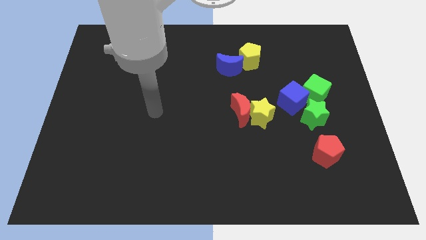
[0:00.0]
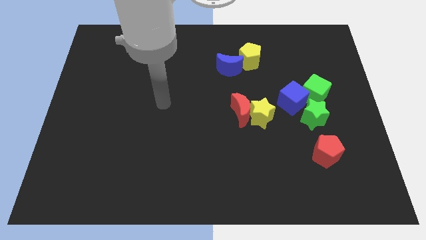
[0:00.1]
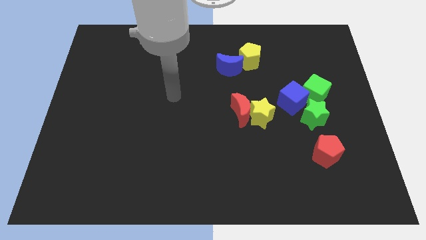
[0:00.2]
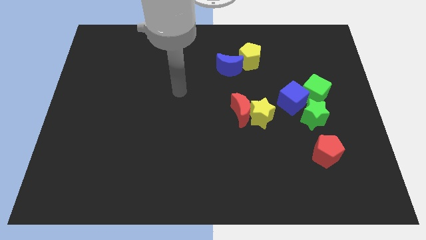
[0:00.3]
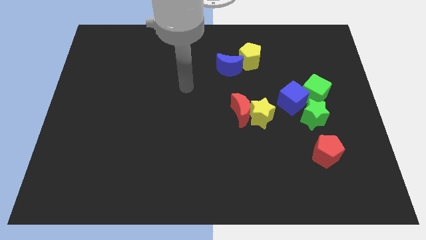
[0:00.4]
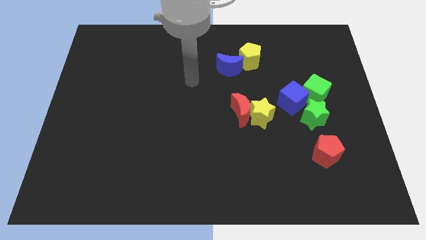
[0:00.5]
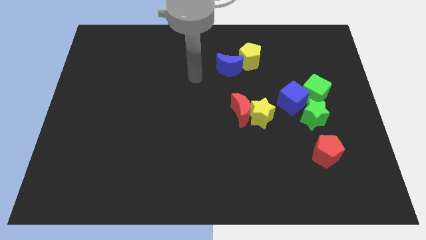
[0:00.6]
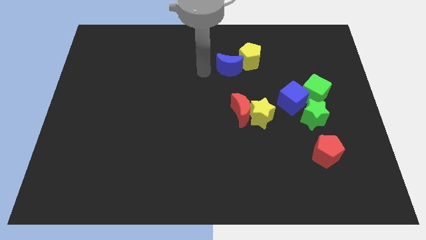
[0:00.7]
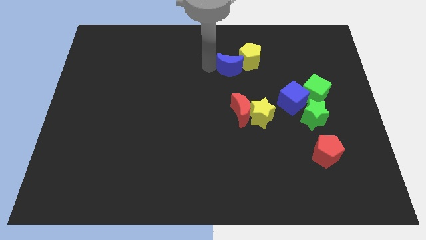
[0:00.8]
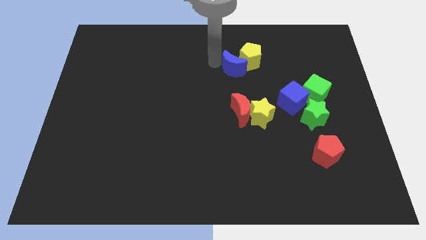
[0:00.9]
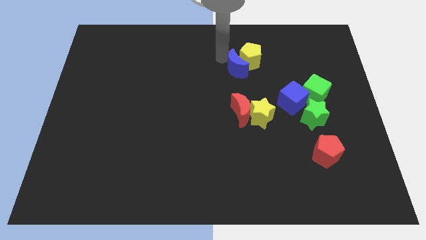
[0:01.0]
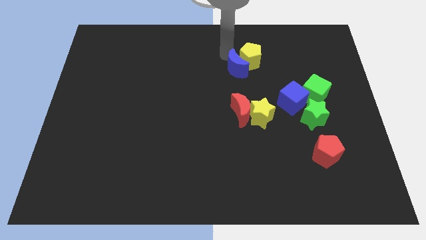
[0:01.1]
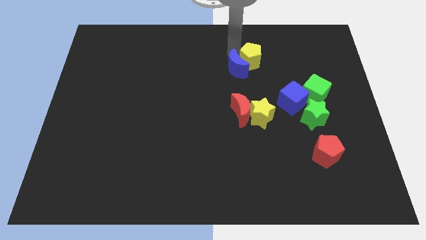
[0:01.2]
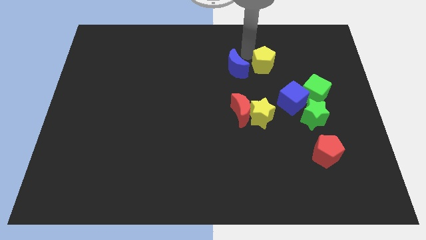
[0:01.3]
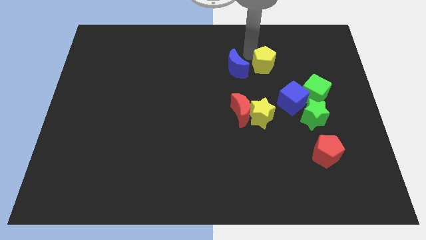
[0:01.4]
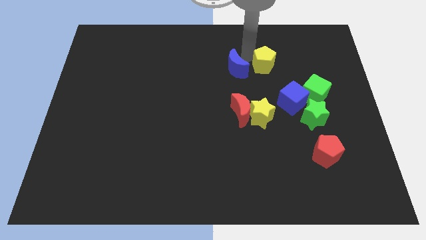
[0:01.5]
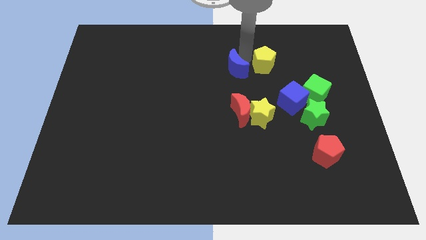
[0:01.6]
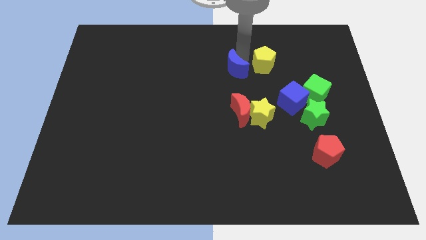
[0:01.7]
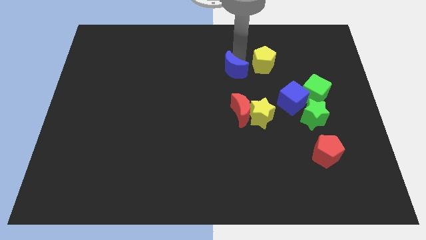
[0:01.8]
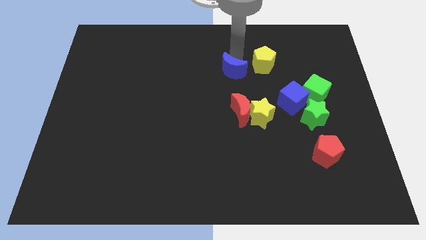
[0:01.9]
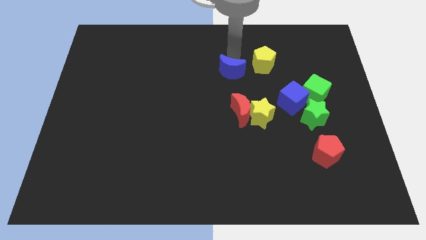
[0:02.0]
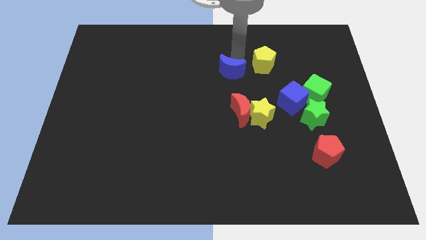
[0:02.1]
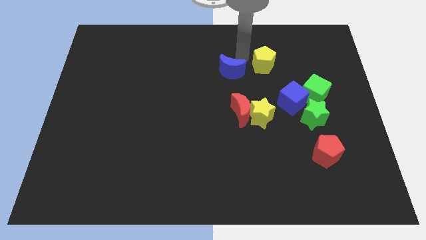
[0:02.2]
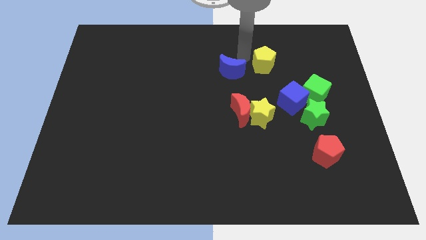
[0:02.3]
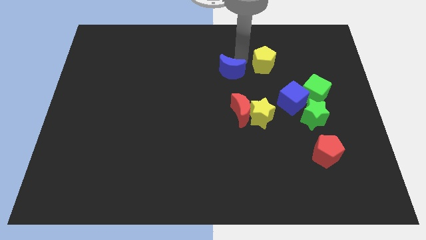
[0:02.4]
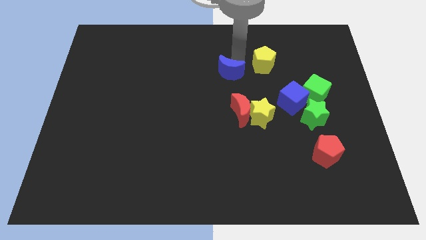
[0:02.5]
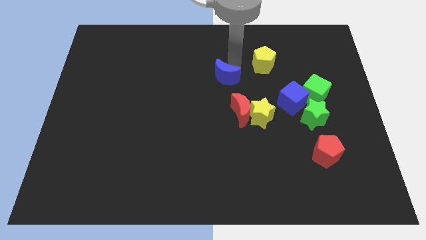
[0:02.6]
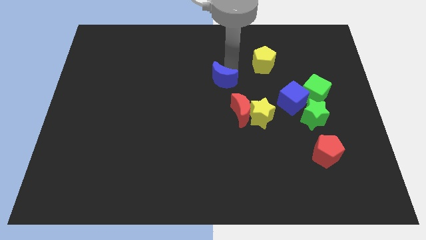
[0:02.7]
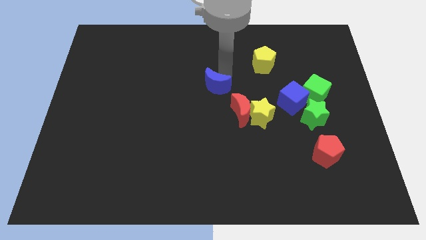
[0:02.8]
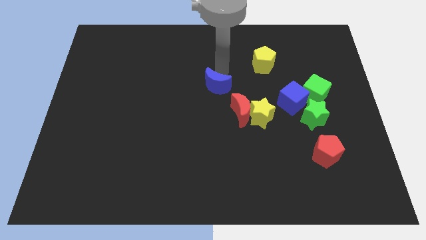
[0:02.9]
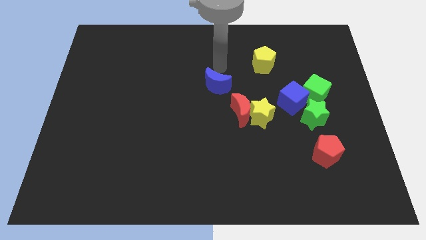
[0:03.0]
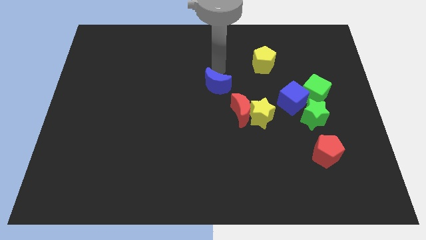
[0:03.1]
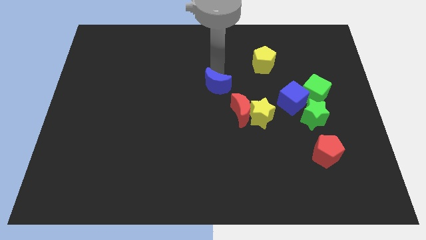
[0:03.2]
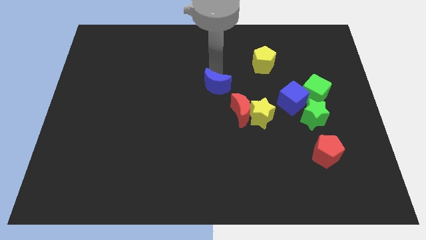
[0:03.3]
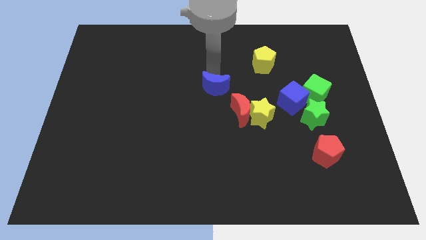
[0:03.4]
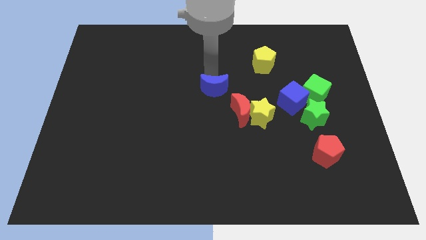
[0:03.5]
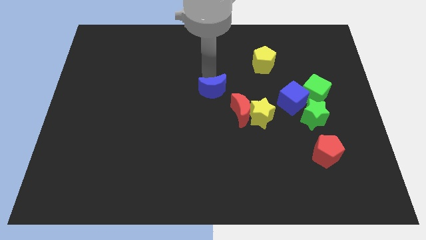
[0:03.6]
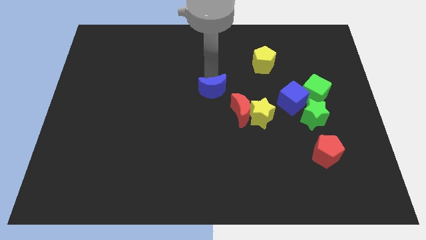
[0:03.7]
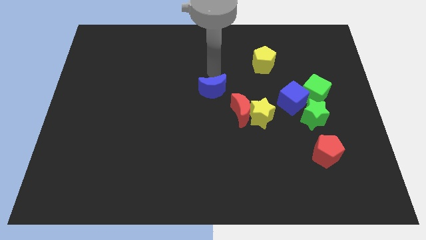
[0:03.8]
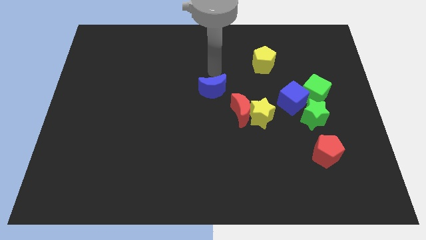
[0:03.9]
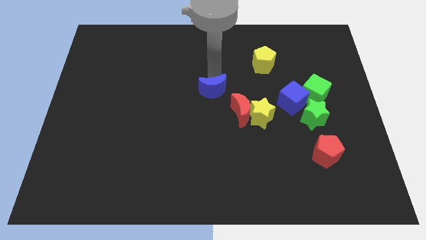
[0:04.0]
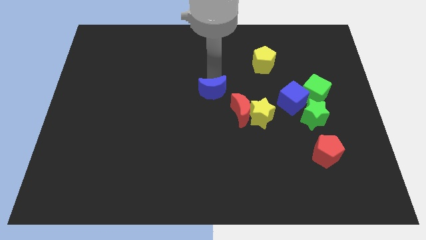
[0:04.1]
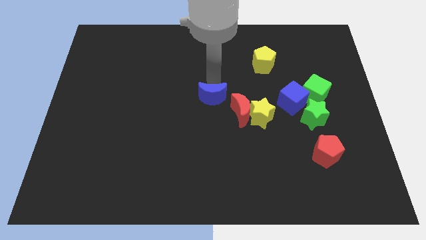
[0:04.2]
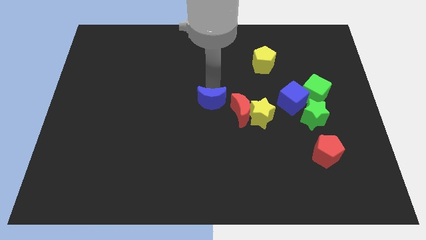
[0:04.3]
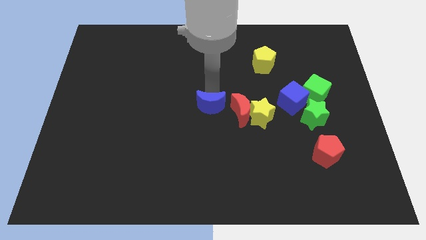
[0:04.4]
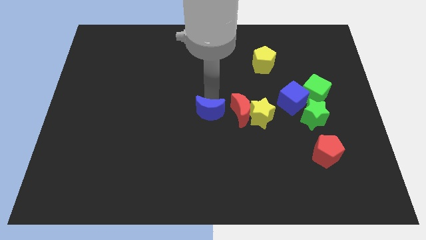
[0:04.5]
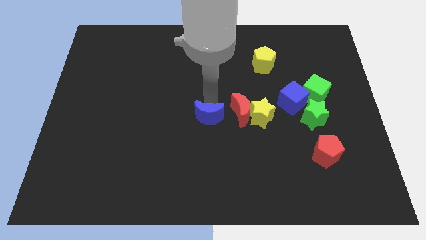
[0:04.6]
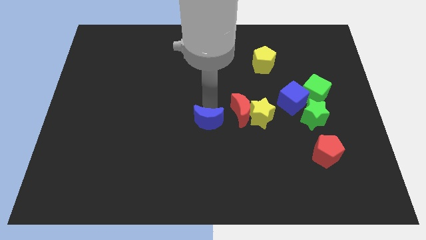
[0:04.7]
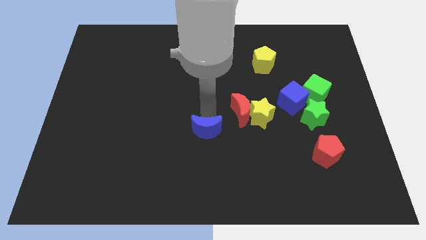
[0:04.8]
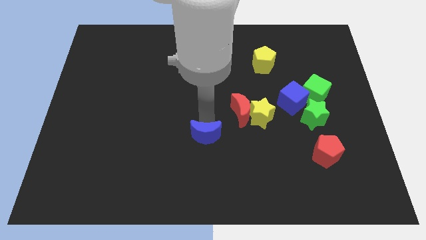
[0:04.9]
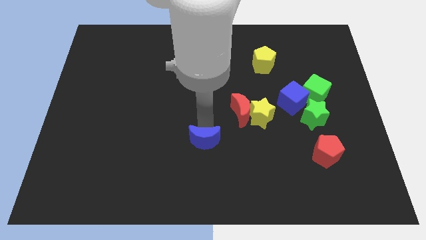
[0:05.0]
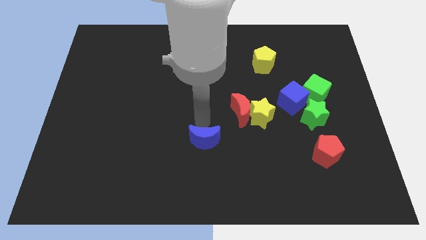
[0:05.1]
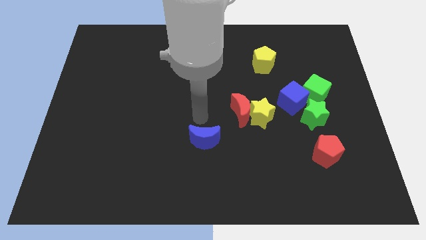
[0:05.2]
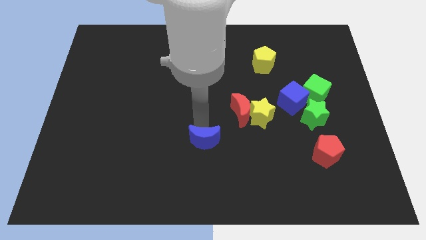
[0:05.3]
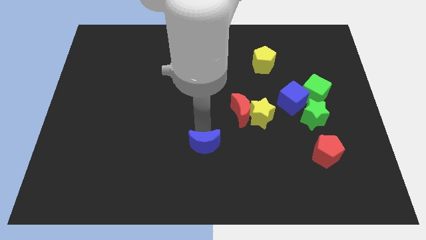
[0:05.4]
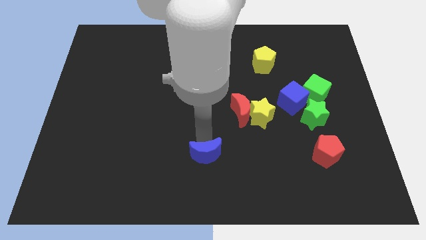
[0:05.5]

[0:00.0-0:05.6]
put the blue moon to the bottom

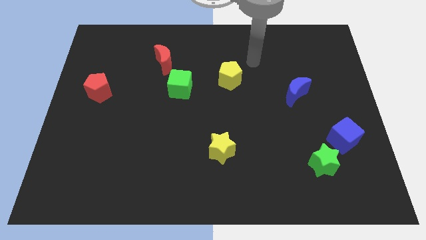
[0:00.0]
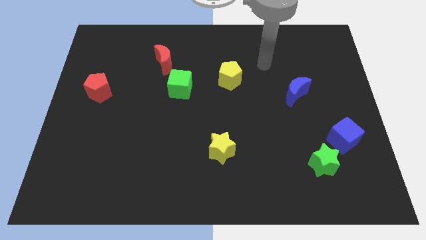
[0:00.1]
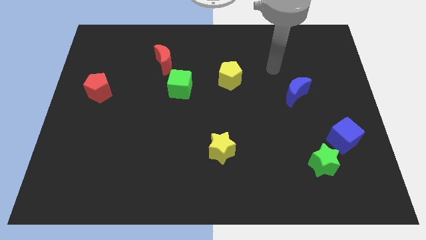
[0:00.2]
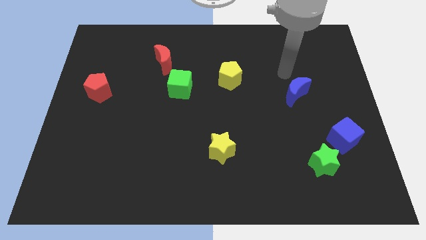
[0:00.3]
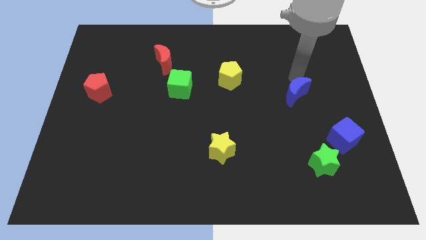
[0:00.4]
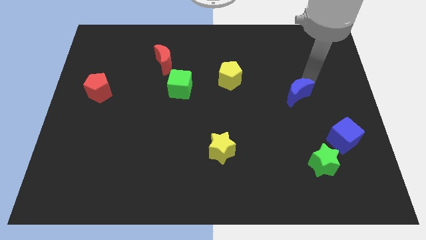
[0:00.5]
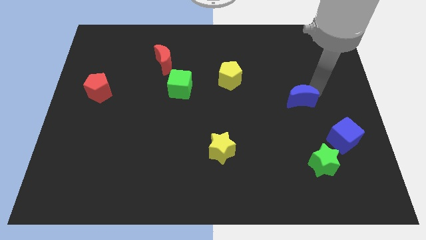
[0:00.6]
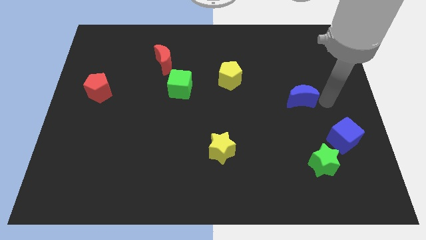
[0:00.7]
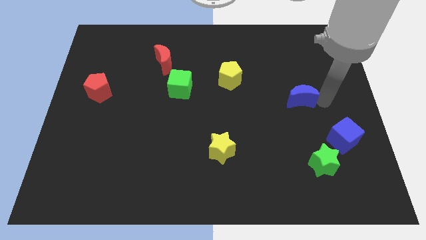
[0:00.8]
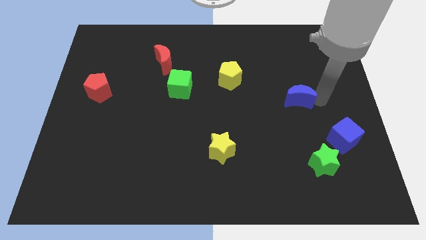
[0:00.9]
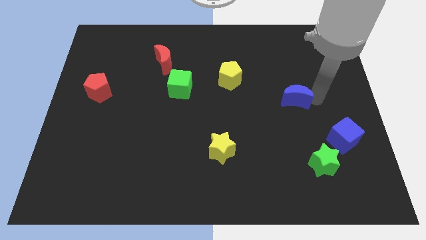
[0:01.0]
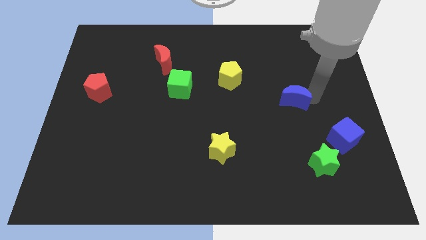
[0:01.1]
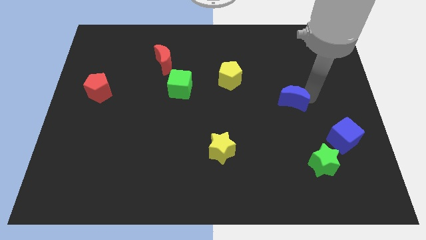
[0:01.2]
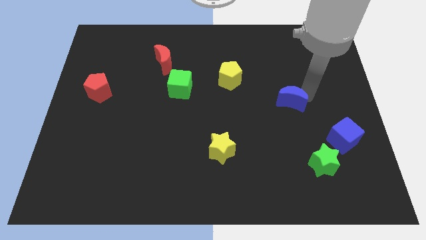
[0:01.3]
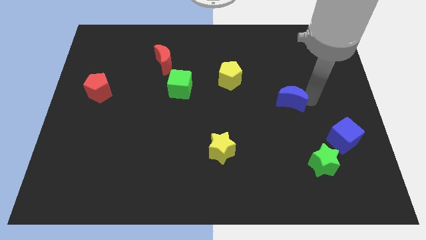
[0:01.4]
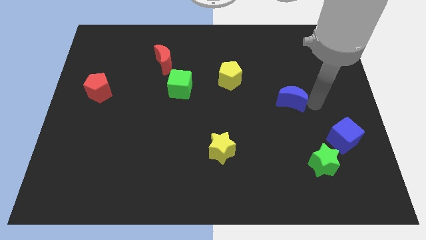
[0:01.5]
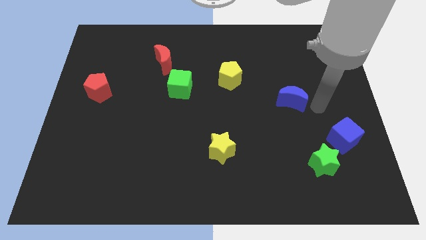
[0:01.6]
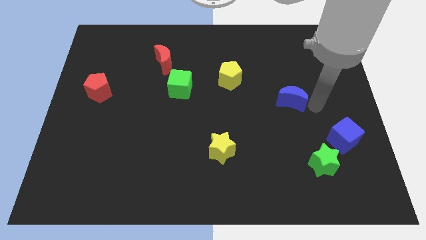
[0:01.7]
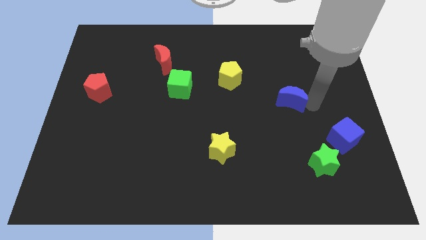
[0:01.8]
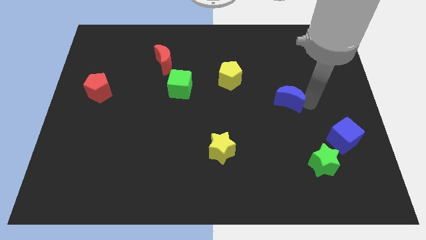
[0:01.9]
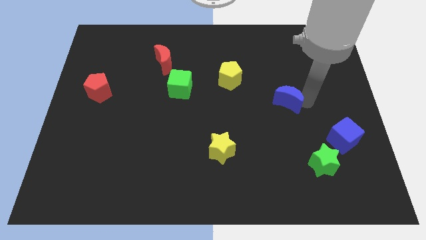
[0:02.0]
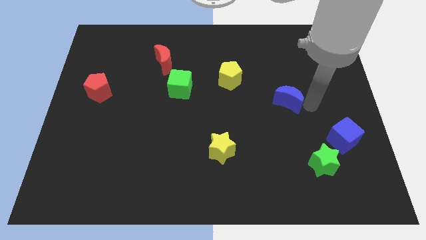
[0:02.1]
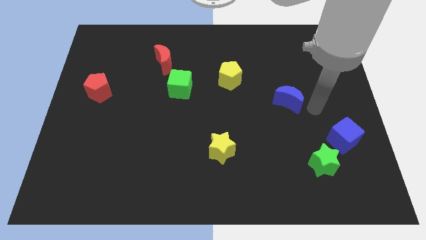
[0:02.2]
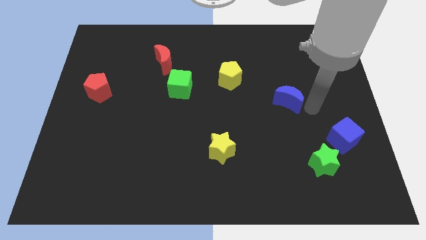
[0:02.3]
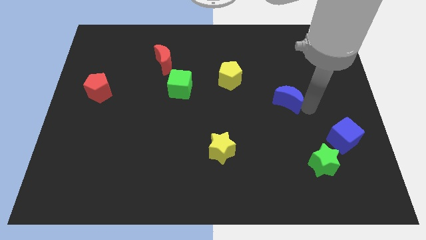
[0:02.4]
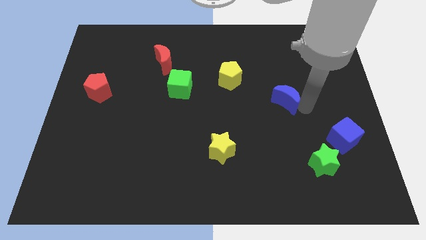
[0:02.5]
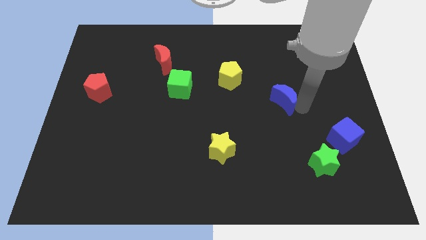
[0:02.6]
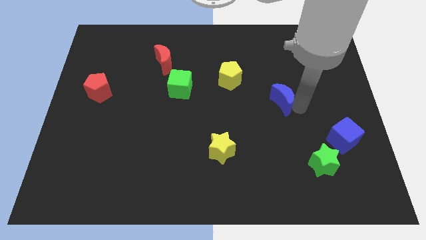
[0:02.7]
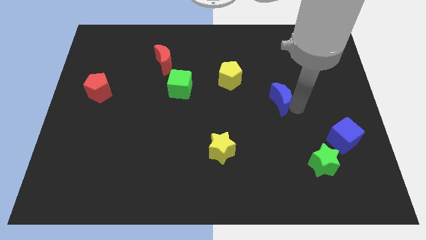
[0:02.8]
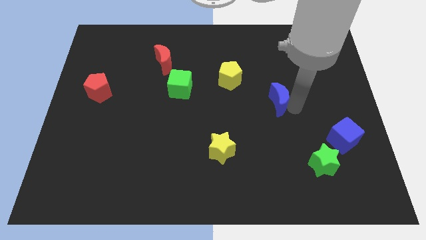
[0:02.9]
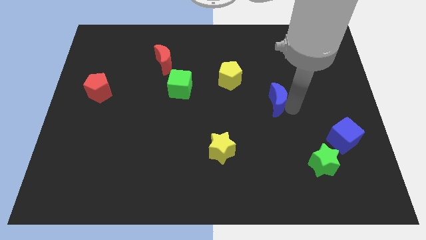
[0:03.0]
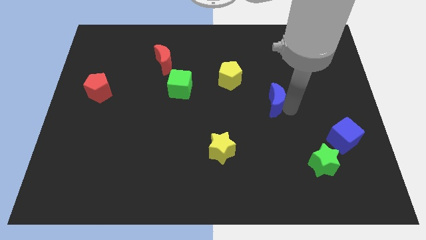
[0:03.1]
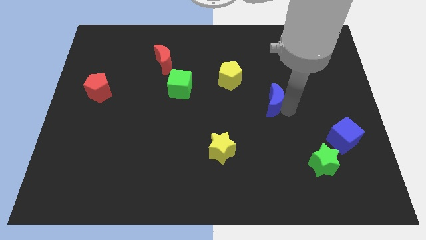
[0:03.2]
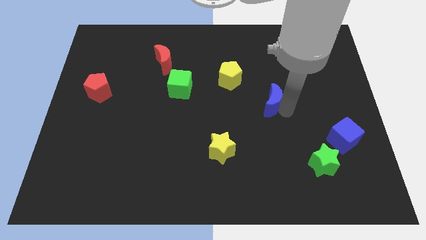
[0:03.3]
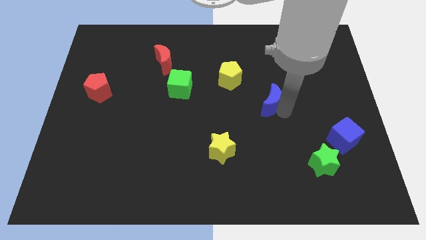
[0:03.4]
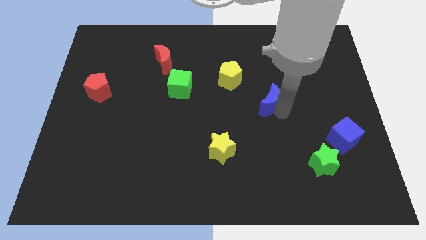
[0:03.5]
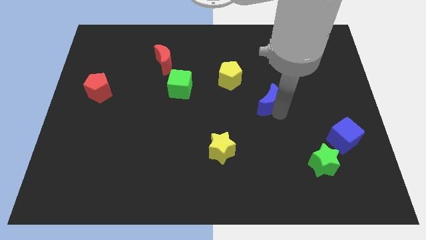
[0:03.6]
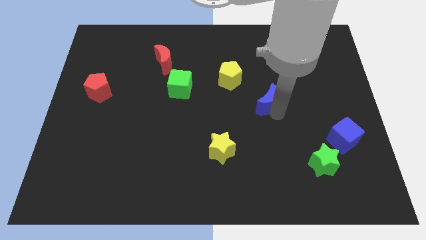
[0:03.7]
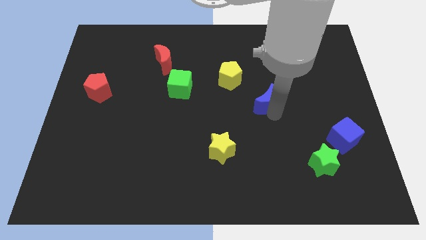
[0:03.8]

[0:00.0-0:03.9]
slide the blue moon to the middle of the board
